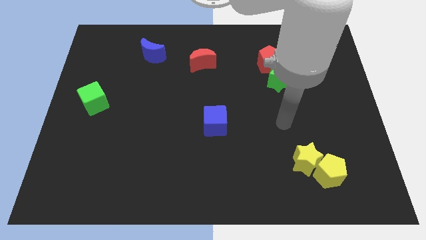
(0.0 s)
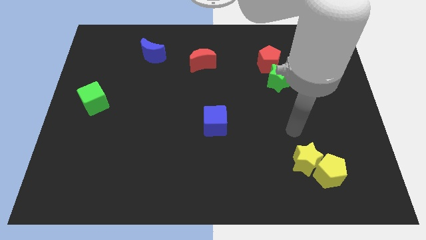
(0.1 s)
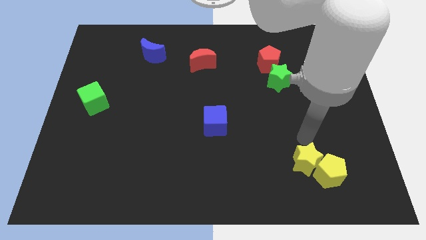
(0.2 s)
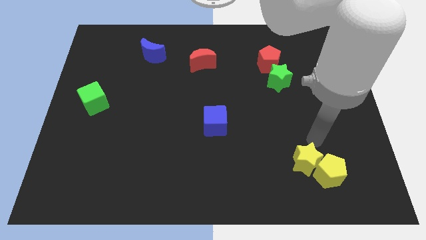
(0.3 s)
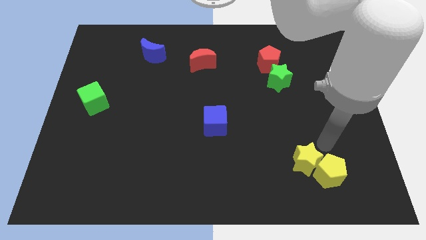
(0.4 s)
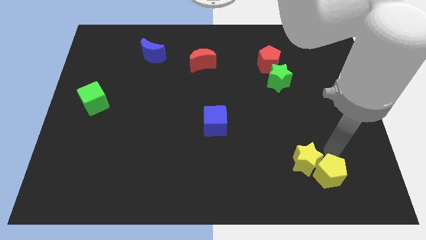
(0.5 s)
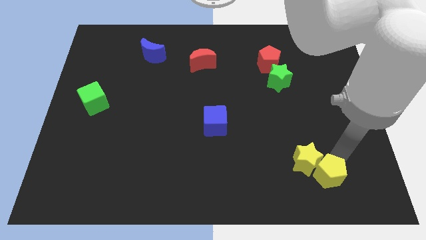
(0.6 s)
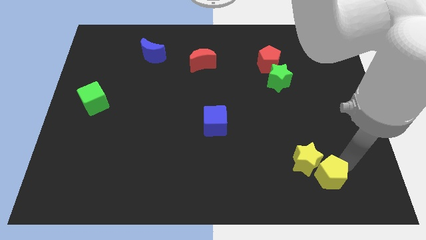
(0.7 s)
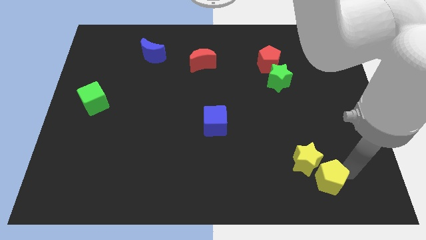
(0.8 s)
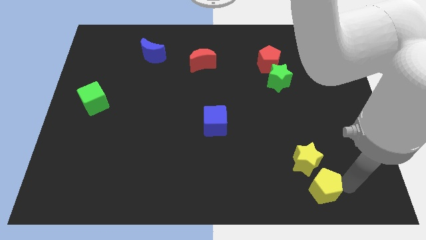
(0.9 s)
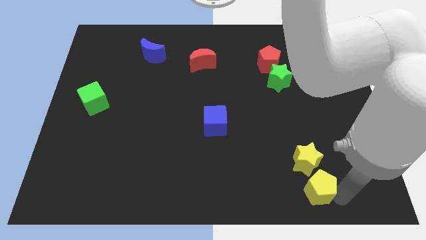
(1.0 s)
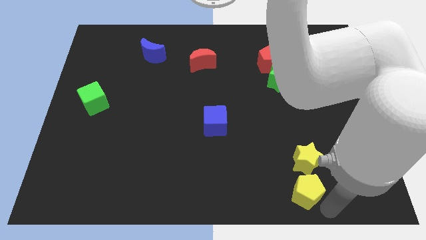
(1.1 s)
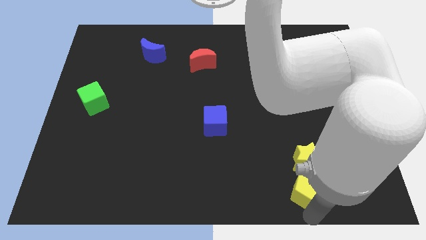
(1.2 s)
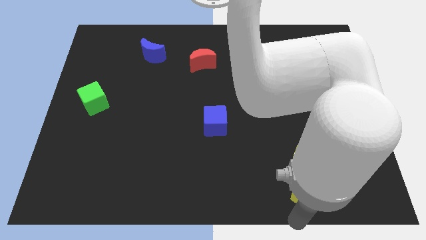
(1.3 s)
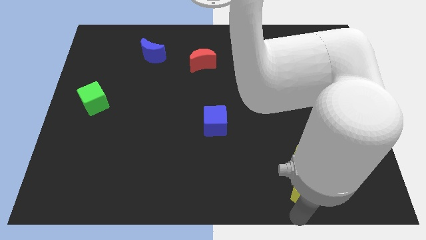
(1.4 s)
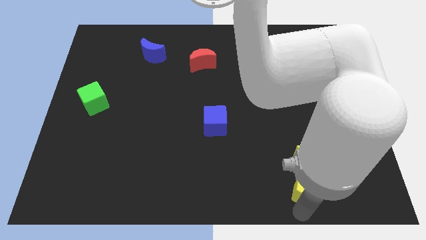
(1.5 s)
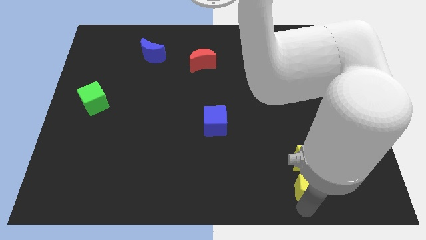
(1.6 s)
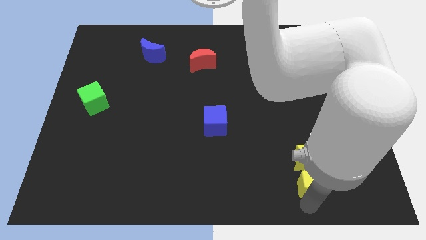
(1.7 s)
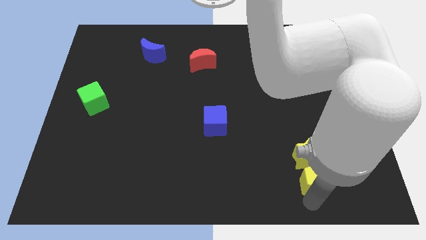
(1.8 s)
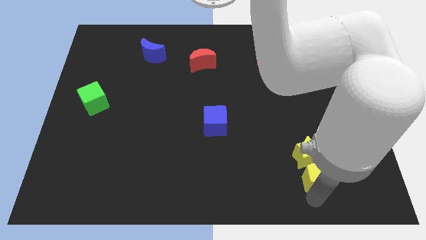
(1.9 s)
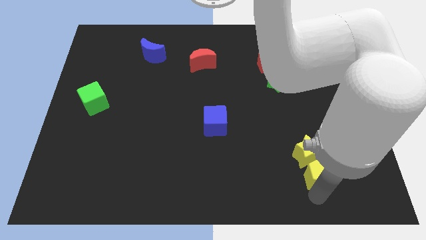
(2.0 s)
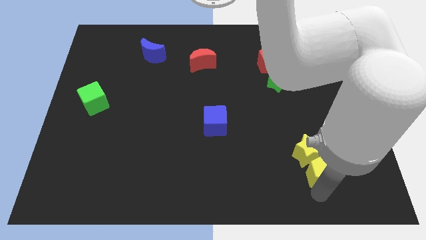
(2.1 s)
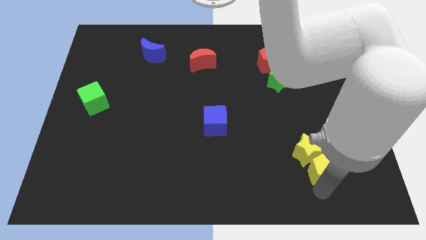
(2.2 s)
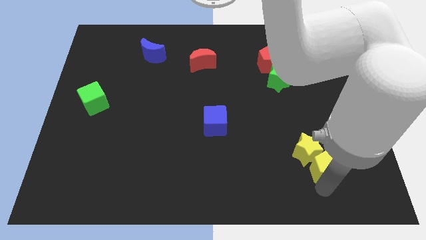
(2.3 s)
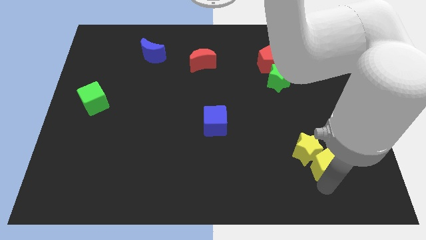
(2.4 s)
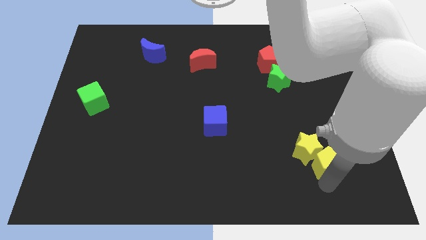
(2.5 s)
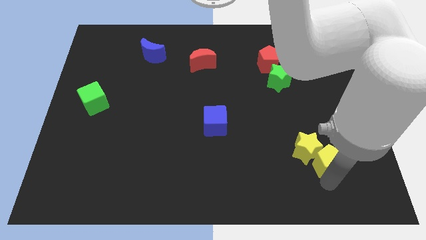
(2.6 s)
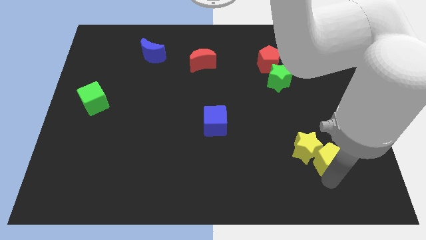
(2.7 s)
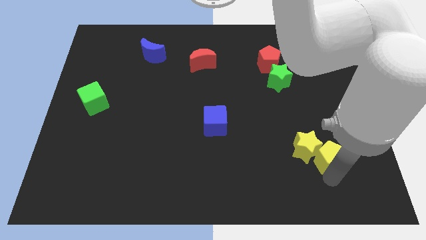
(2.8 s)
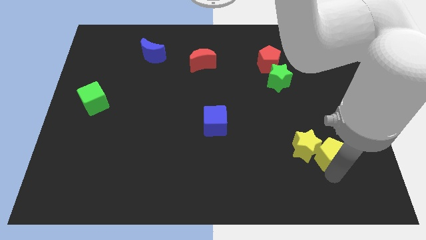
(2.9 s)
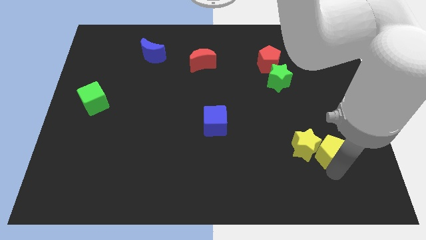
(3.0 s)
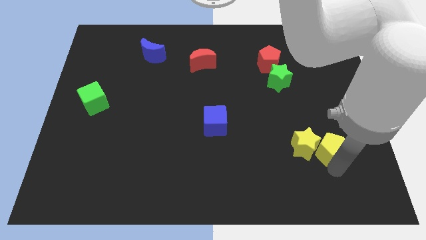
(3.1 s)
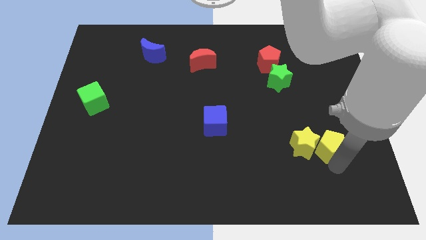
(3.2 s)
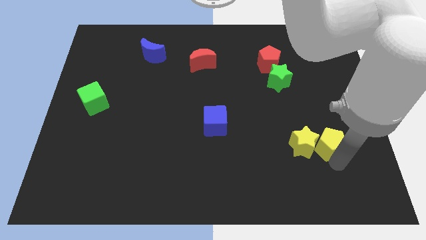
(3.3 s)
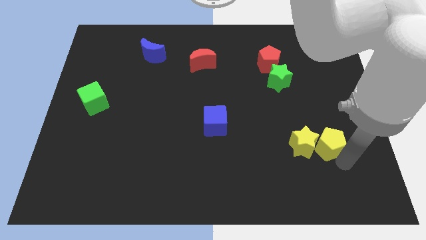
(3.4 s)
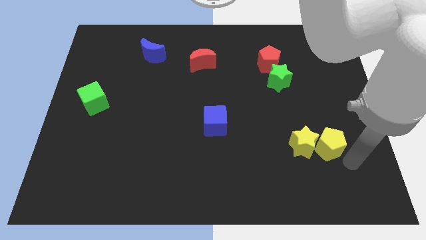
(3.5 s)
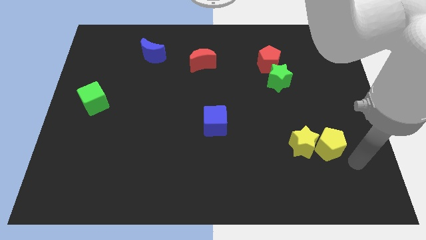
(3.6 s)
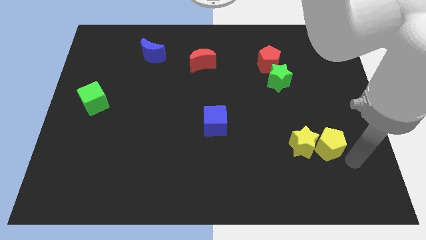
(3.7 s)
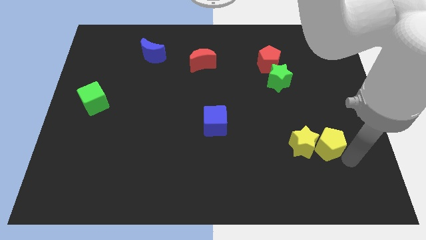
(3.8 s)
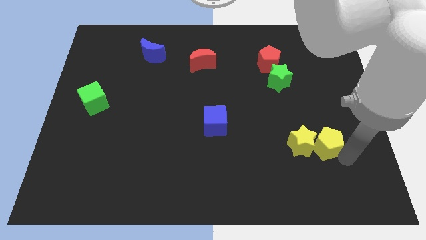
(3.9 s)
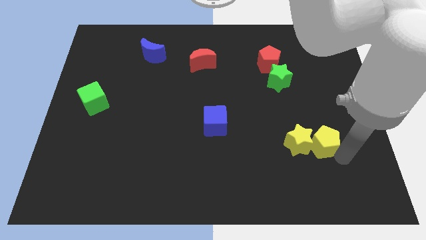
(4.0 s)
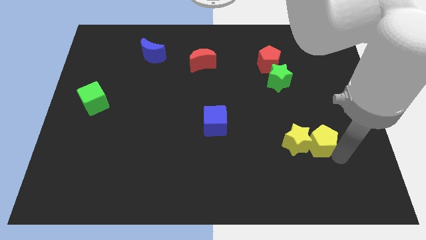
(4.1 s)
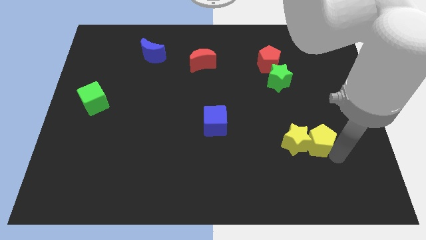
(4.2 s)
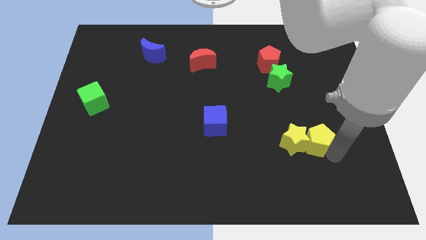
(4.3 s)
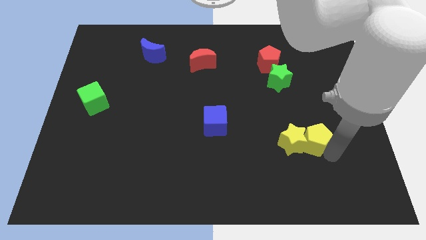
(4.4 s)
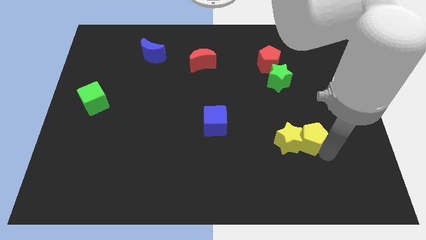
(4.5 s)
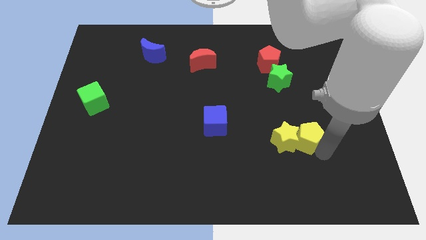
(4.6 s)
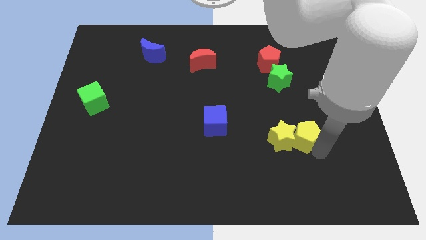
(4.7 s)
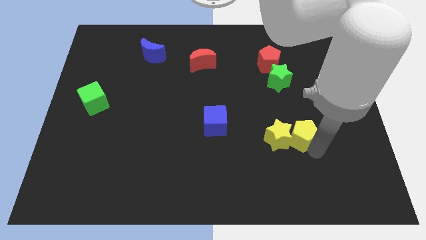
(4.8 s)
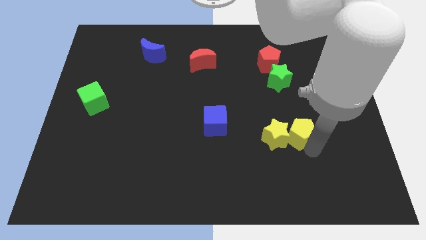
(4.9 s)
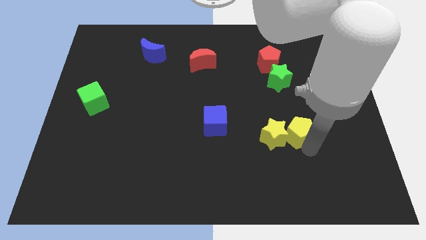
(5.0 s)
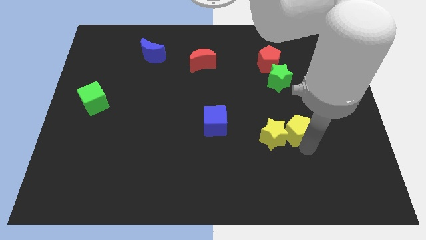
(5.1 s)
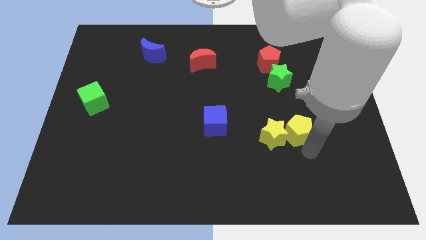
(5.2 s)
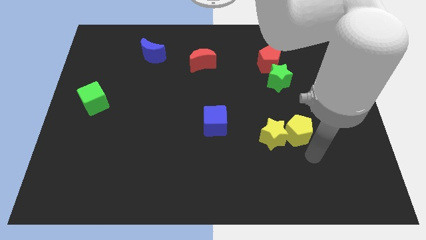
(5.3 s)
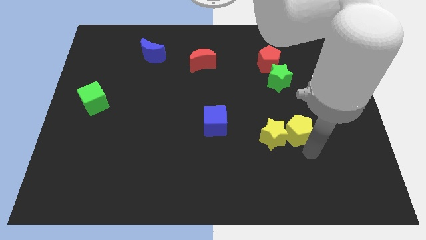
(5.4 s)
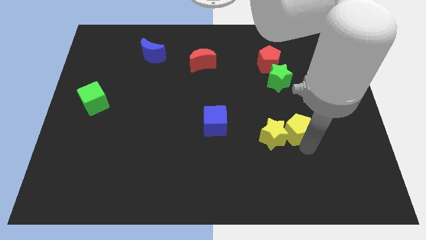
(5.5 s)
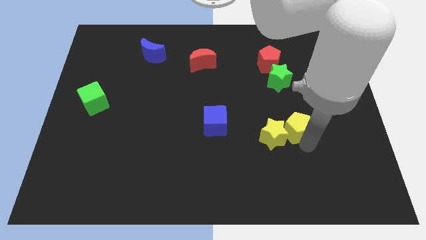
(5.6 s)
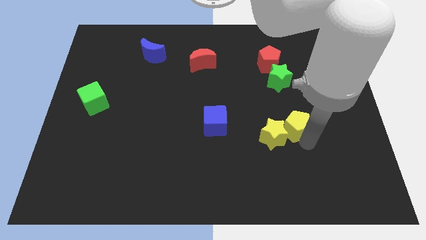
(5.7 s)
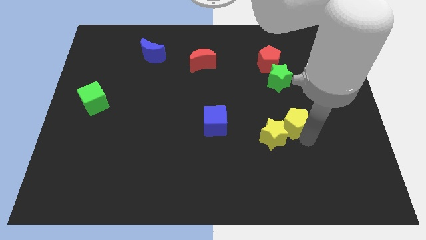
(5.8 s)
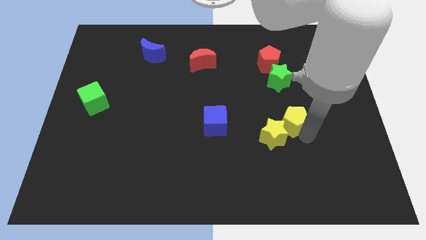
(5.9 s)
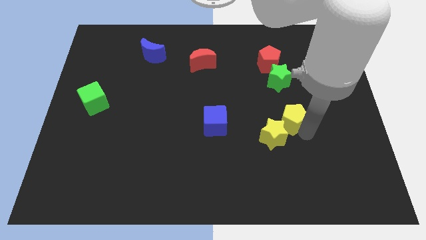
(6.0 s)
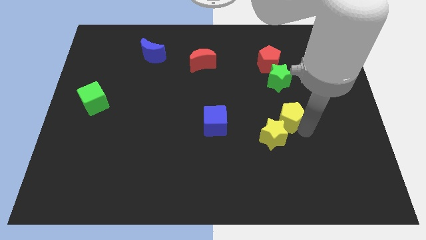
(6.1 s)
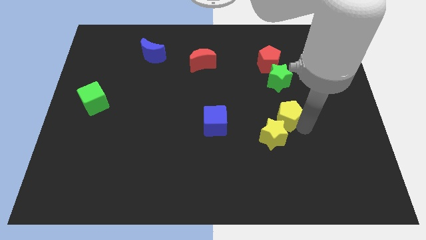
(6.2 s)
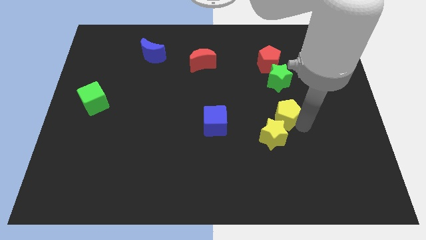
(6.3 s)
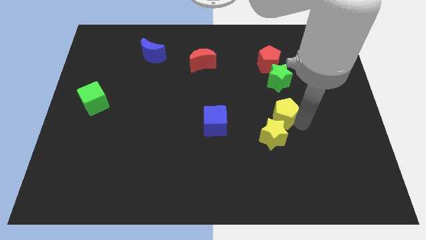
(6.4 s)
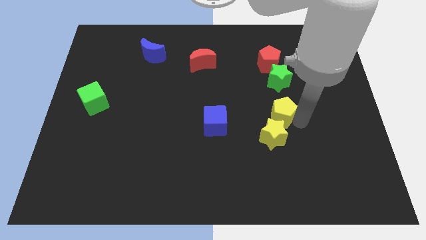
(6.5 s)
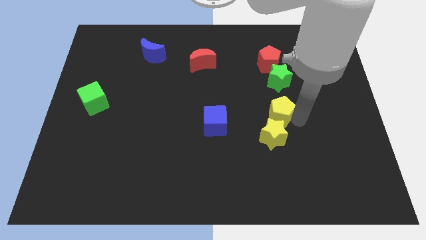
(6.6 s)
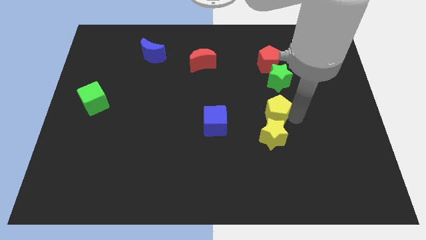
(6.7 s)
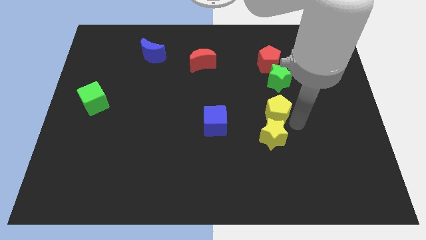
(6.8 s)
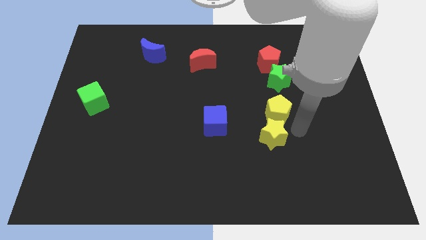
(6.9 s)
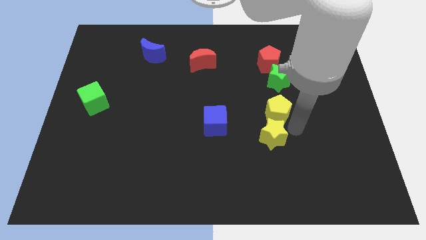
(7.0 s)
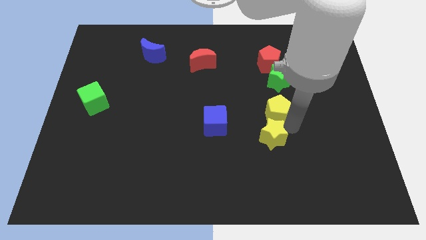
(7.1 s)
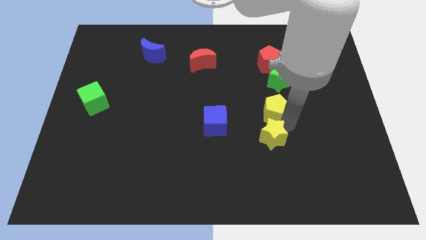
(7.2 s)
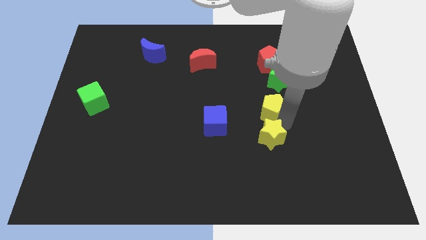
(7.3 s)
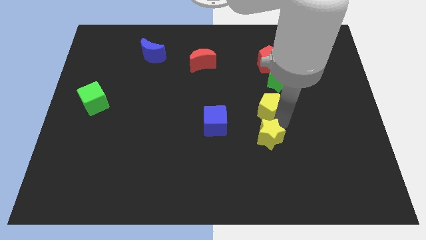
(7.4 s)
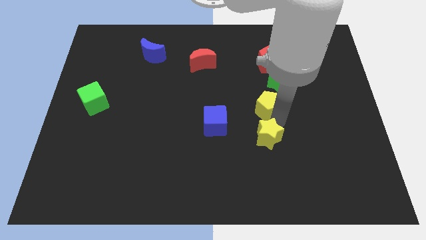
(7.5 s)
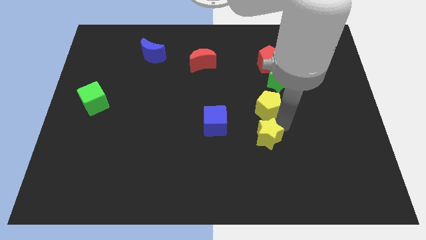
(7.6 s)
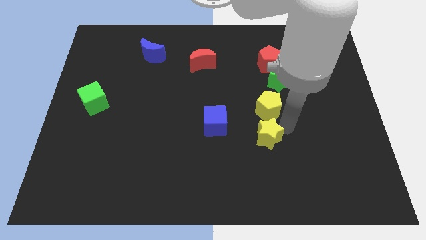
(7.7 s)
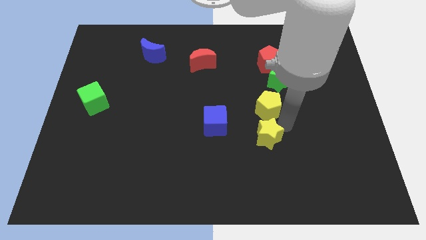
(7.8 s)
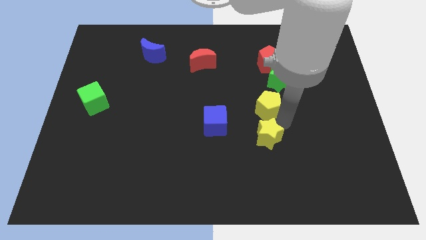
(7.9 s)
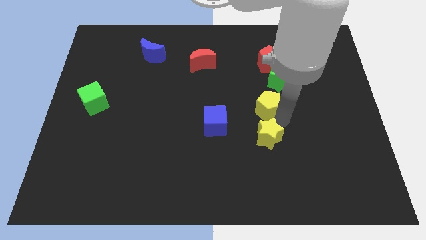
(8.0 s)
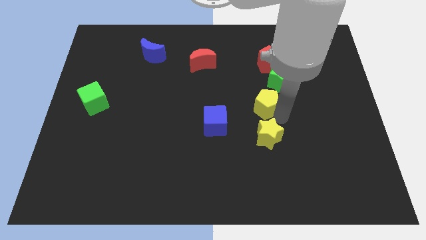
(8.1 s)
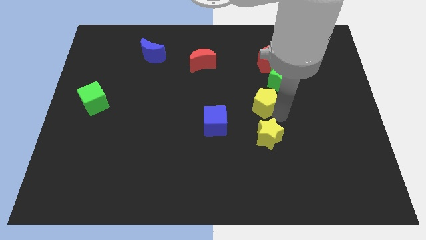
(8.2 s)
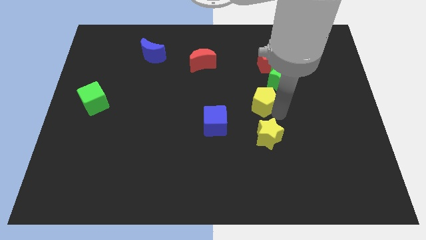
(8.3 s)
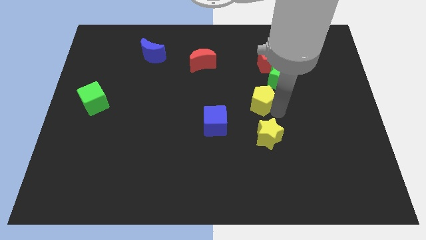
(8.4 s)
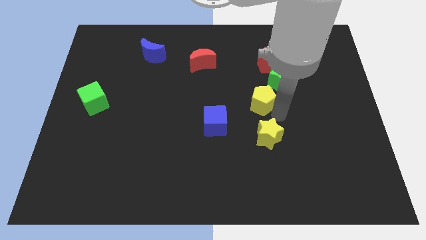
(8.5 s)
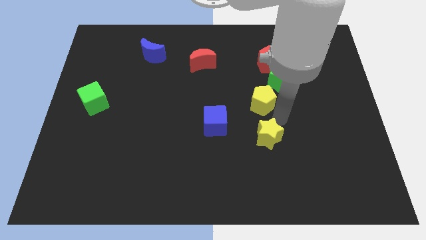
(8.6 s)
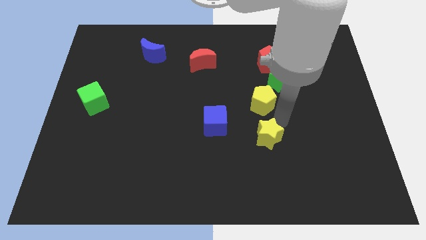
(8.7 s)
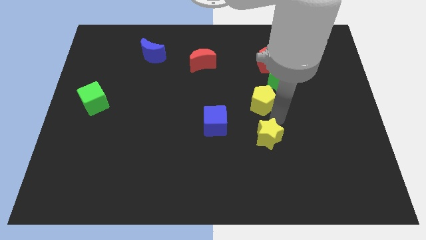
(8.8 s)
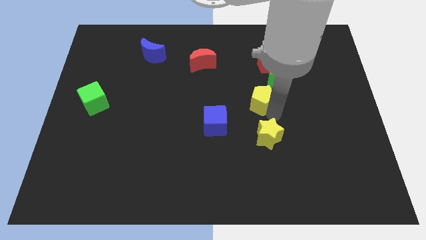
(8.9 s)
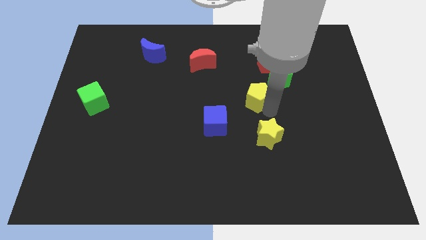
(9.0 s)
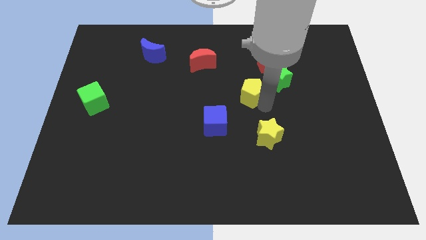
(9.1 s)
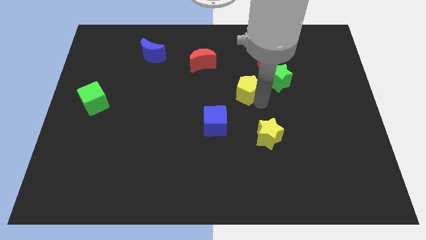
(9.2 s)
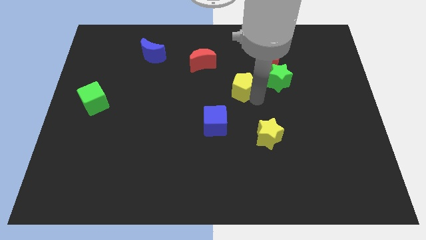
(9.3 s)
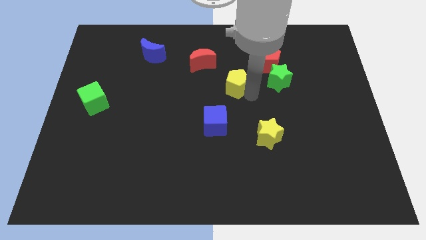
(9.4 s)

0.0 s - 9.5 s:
put the yellow pentagon diagonally down and to the right of the red moon
